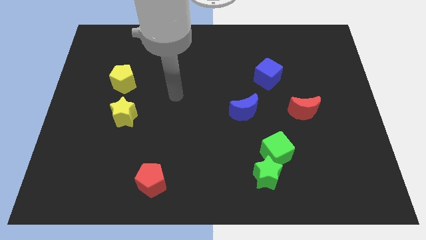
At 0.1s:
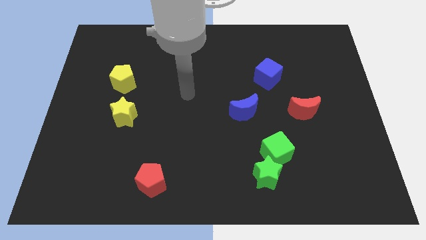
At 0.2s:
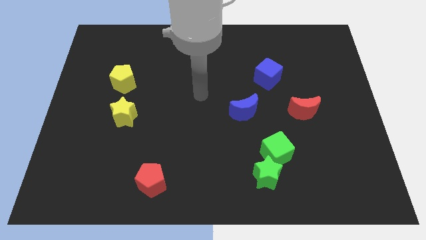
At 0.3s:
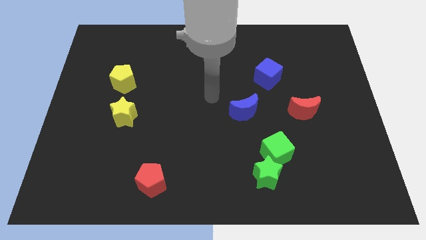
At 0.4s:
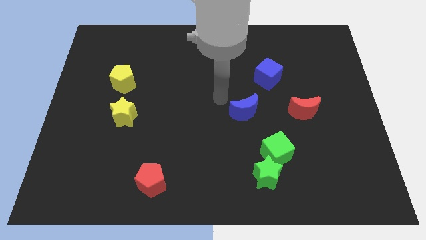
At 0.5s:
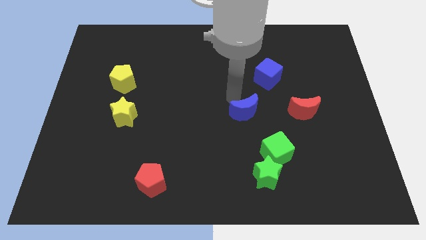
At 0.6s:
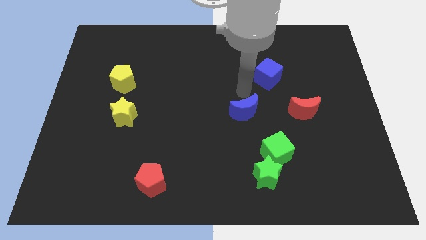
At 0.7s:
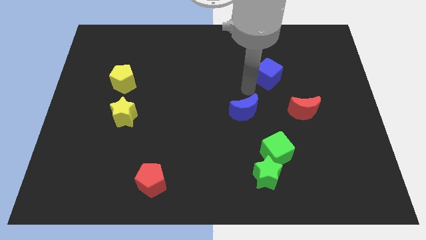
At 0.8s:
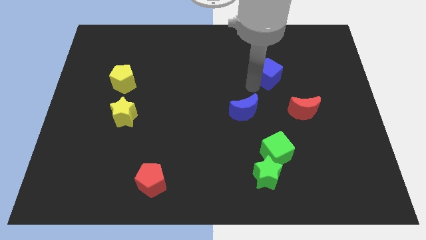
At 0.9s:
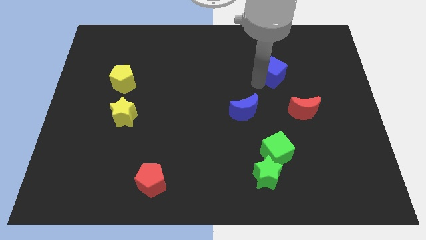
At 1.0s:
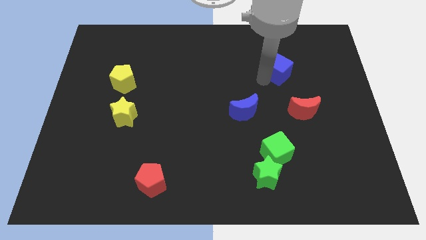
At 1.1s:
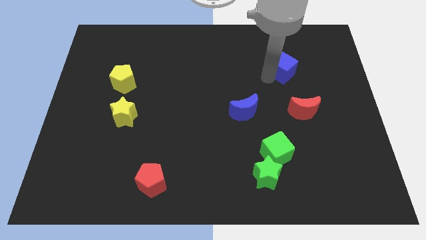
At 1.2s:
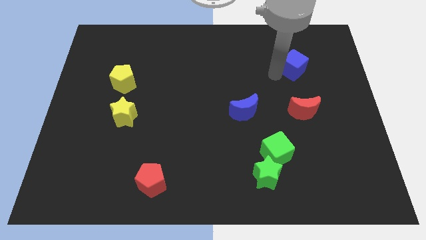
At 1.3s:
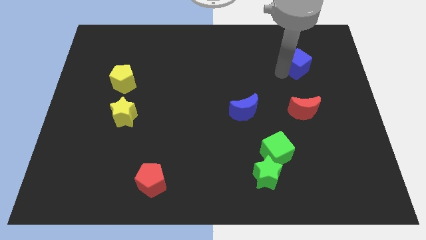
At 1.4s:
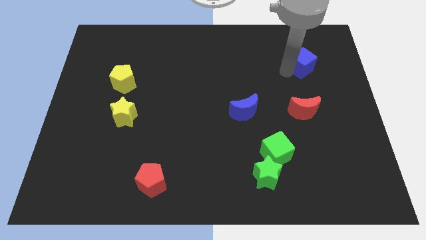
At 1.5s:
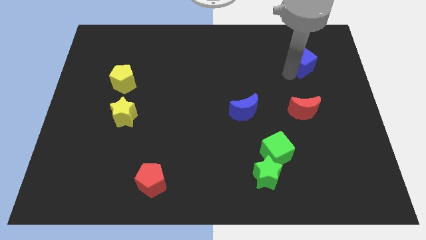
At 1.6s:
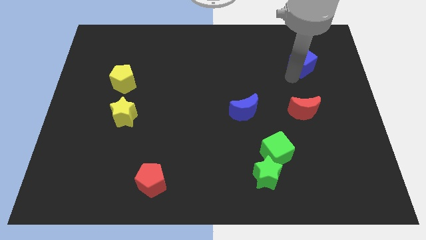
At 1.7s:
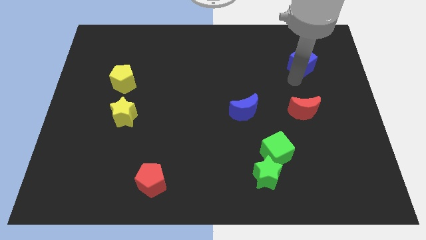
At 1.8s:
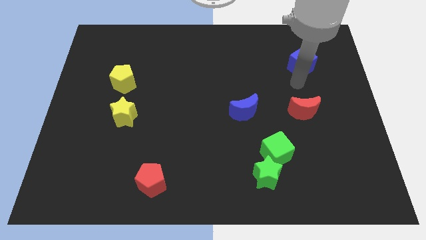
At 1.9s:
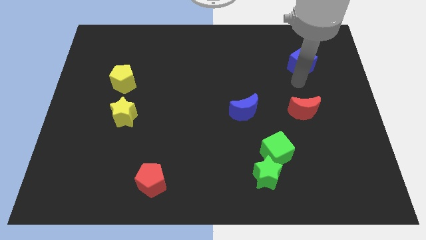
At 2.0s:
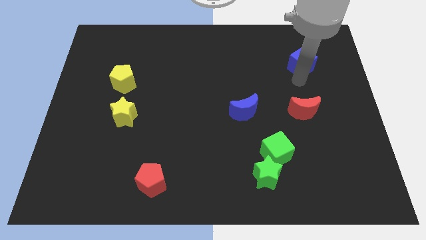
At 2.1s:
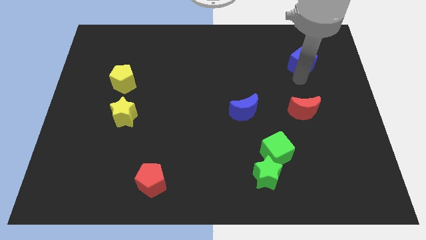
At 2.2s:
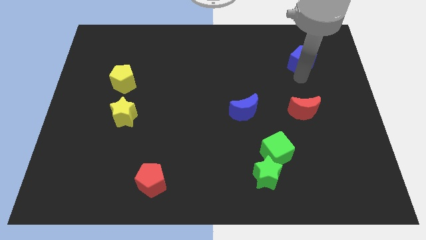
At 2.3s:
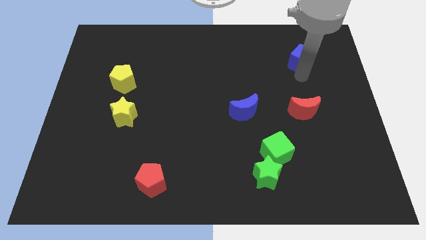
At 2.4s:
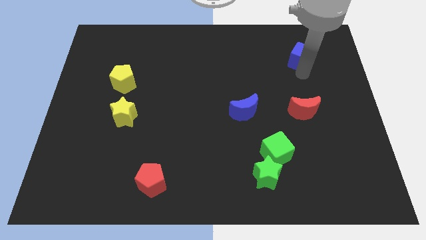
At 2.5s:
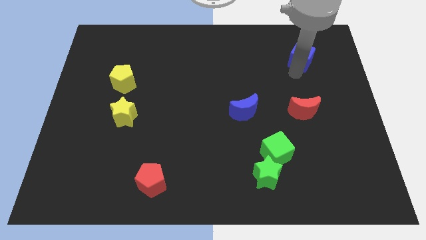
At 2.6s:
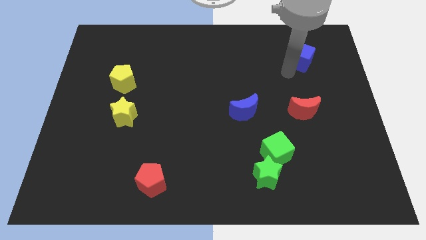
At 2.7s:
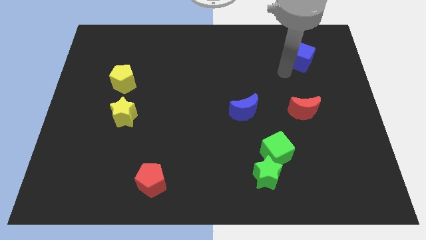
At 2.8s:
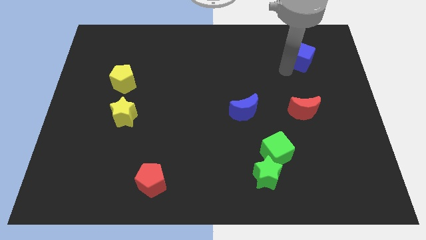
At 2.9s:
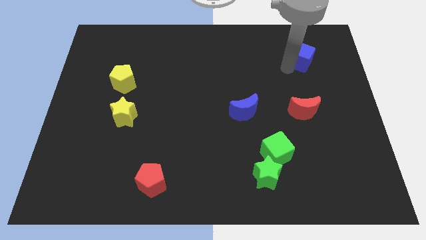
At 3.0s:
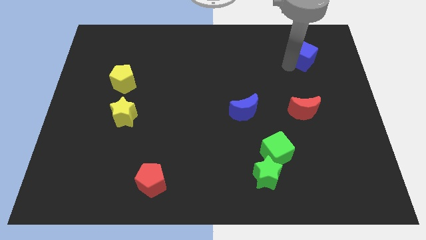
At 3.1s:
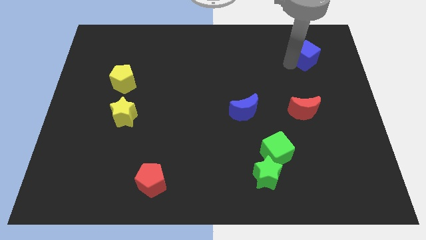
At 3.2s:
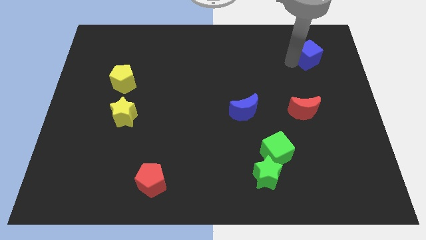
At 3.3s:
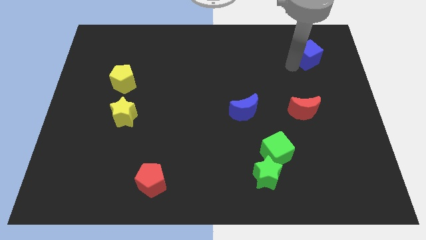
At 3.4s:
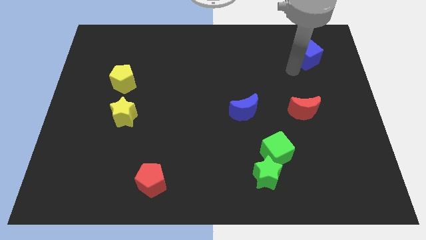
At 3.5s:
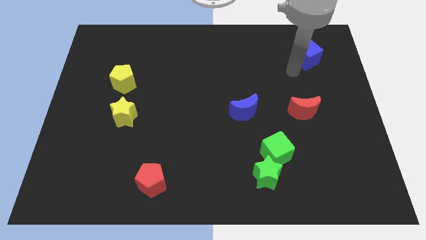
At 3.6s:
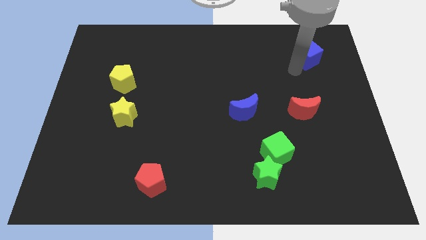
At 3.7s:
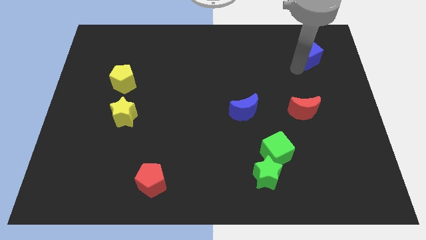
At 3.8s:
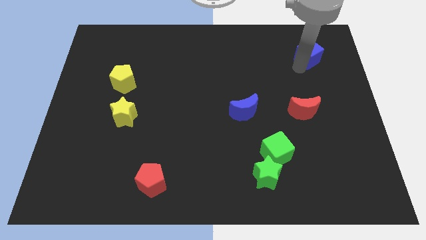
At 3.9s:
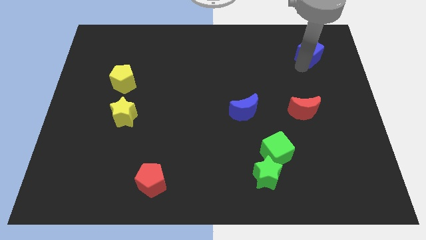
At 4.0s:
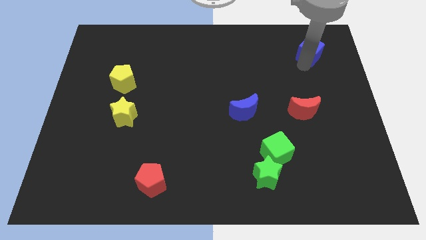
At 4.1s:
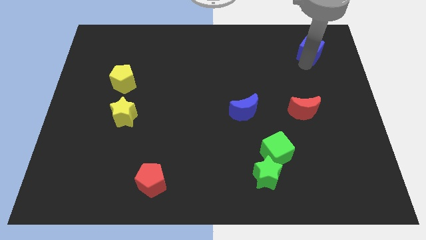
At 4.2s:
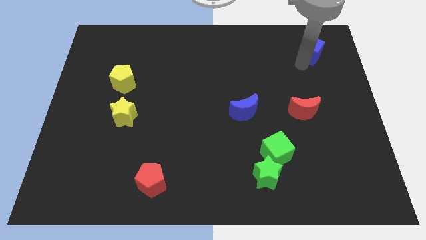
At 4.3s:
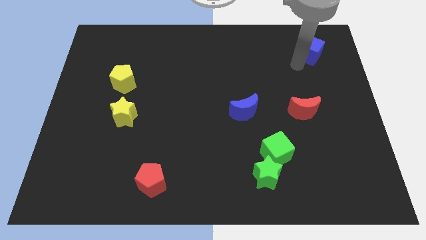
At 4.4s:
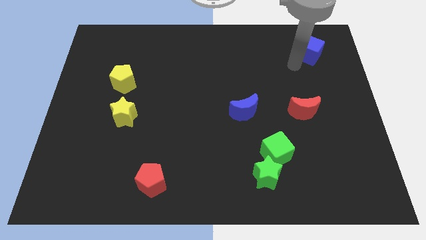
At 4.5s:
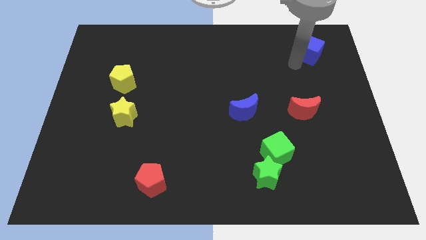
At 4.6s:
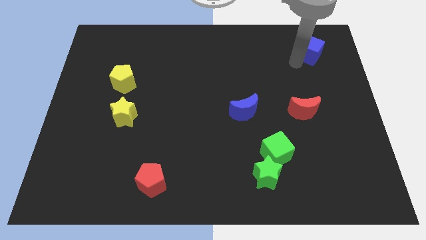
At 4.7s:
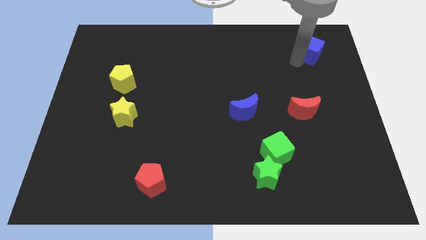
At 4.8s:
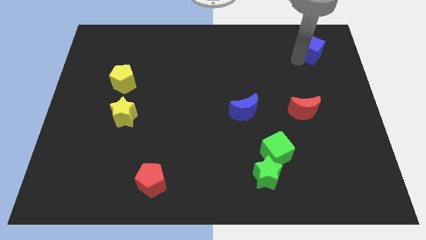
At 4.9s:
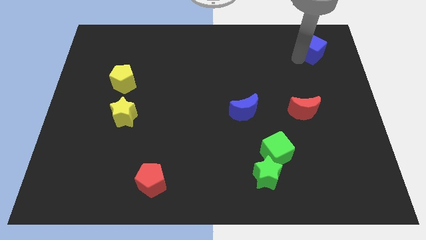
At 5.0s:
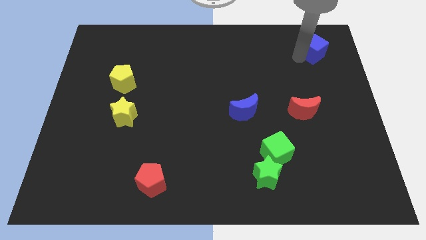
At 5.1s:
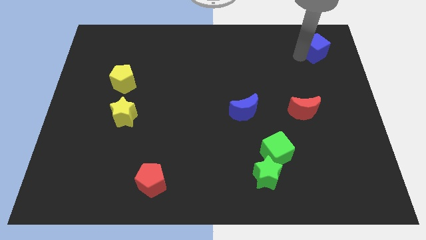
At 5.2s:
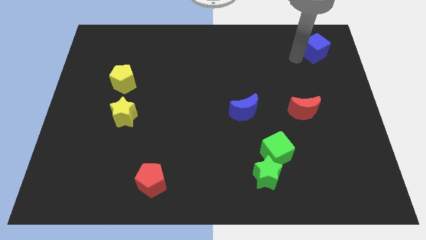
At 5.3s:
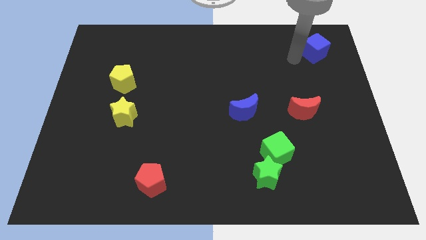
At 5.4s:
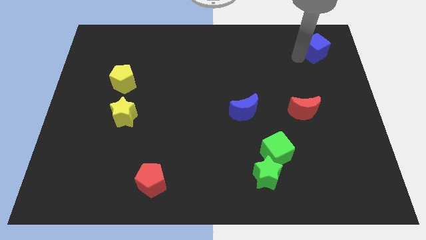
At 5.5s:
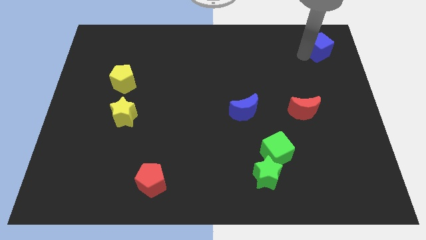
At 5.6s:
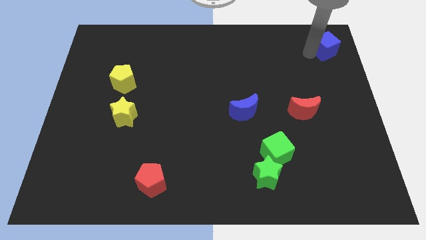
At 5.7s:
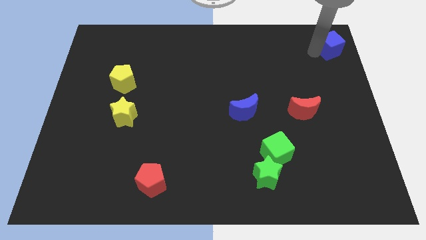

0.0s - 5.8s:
move the blue cube to the top right
